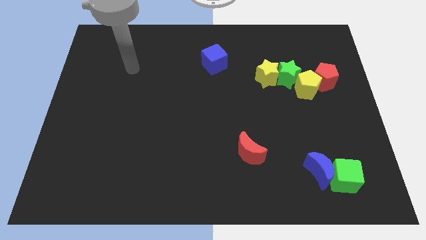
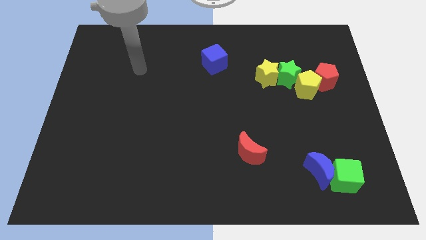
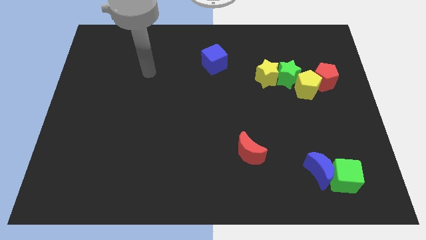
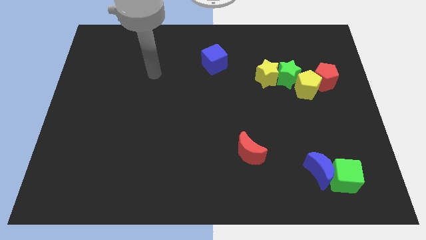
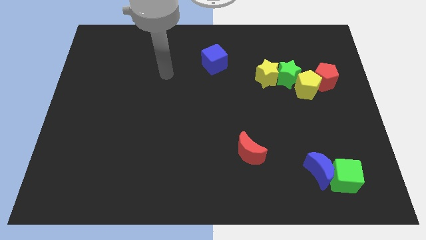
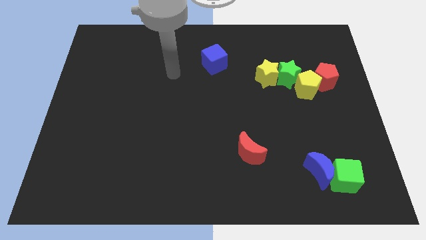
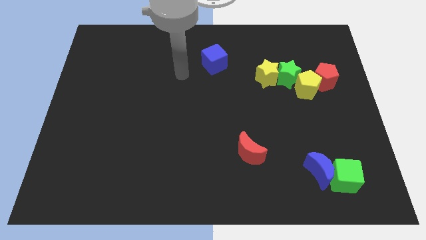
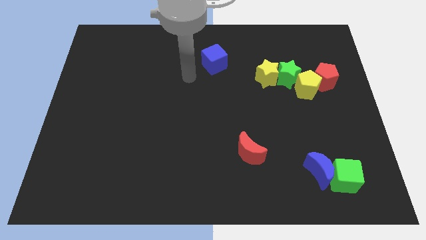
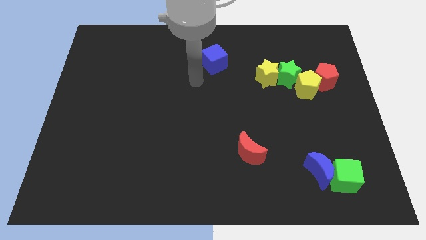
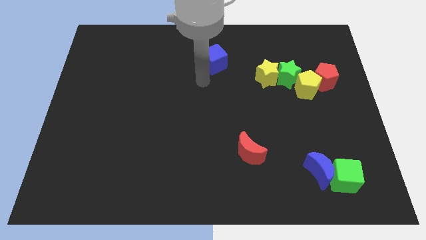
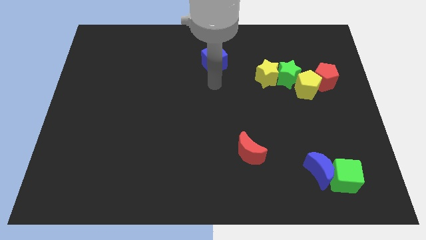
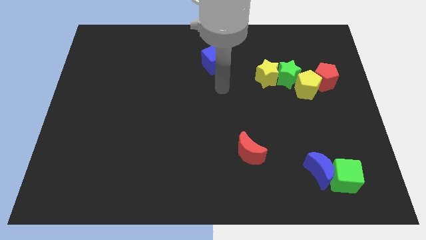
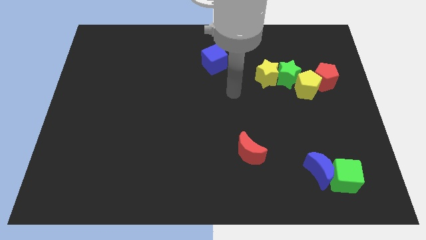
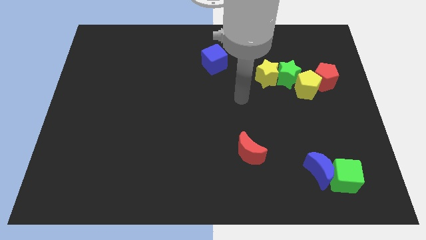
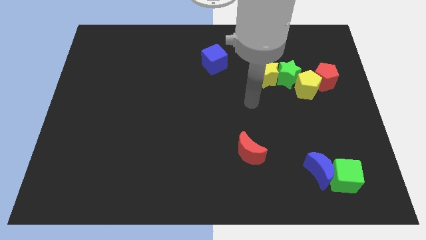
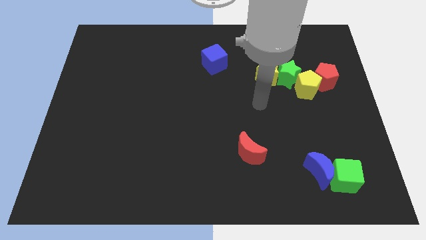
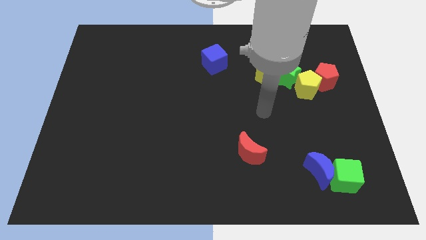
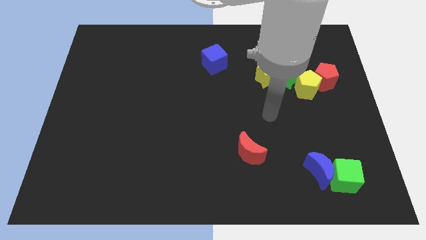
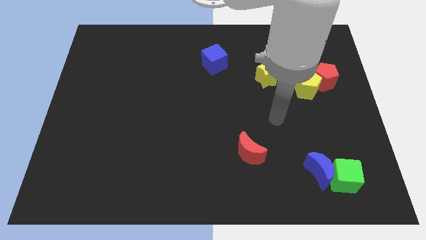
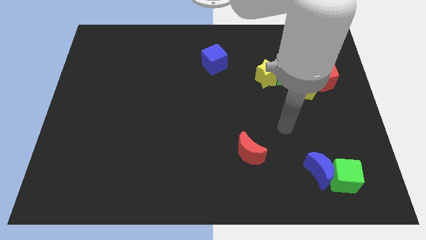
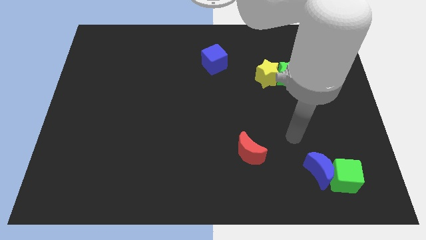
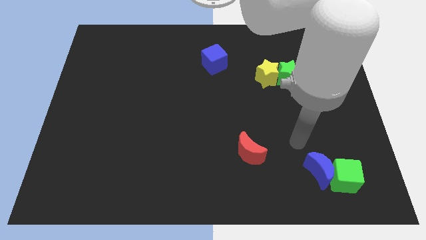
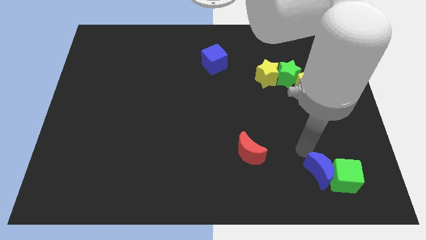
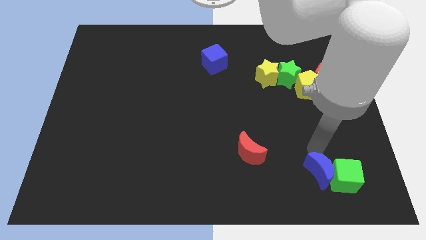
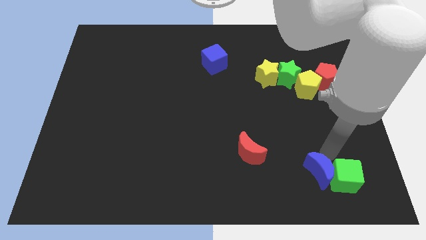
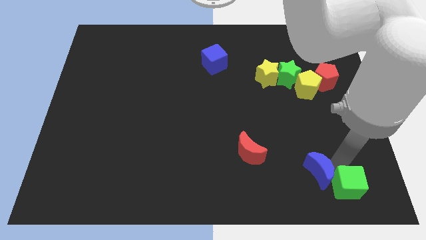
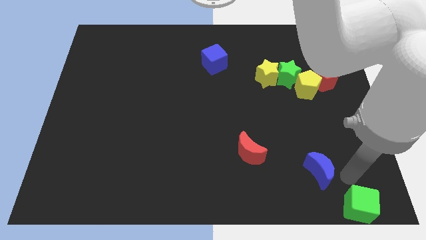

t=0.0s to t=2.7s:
move the blue moon away from the green cube

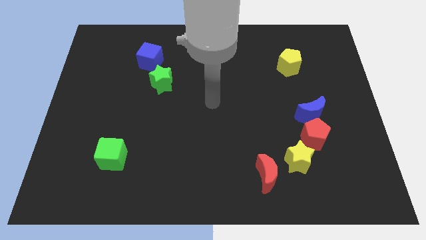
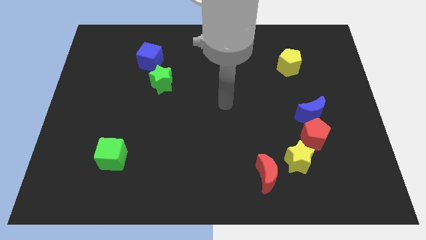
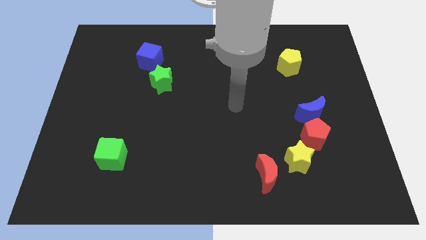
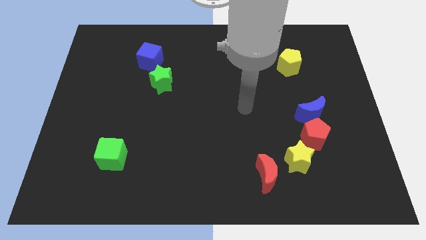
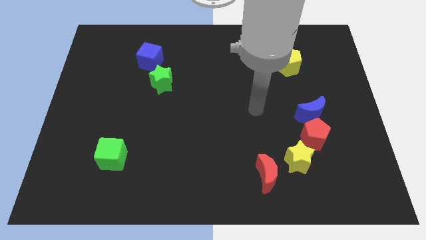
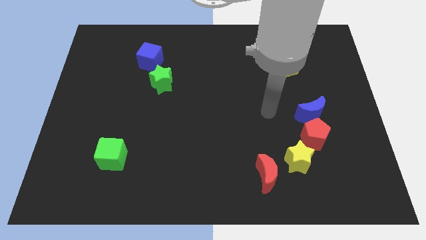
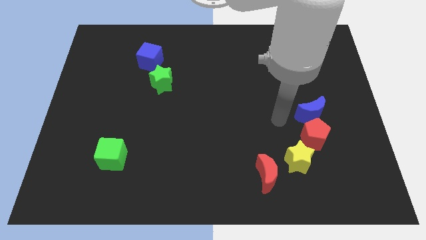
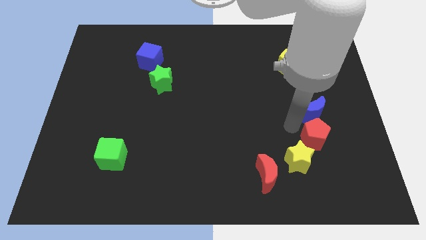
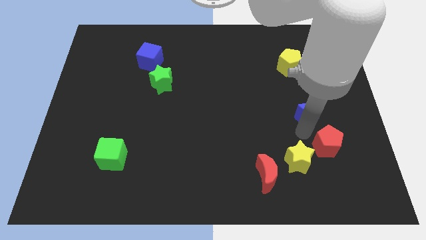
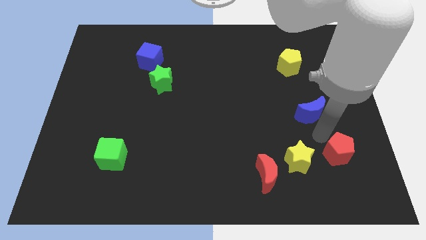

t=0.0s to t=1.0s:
move the blue moon away from the red pentagon

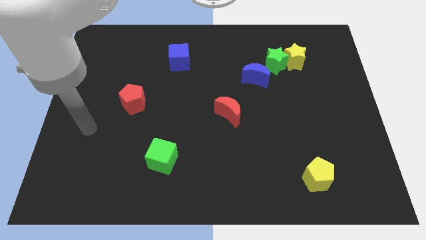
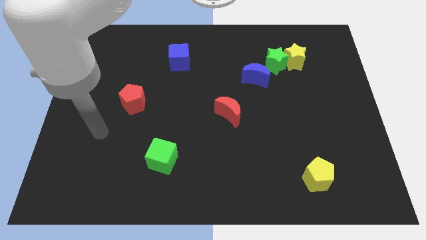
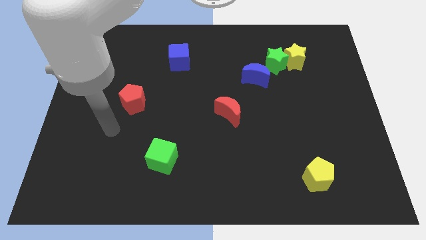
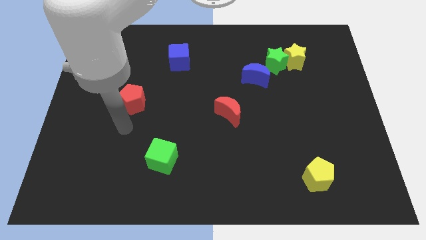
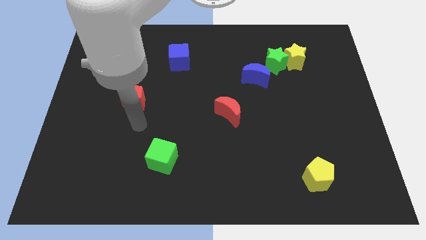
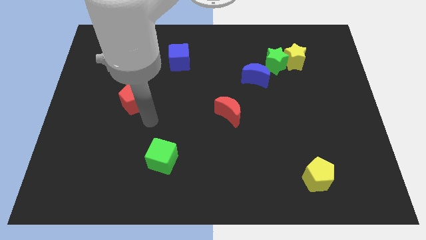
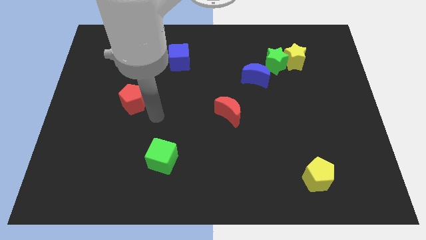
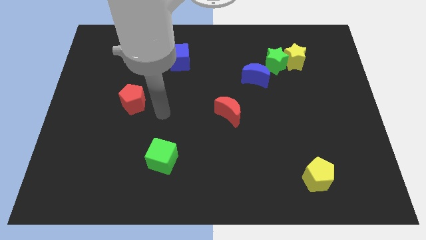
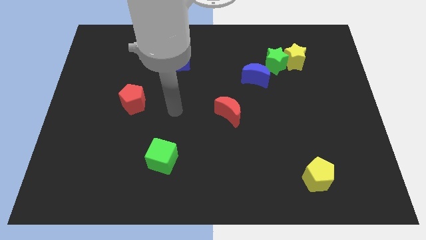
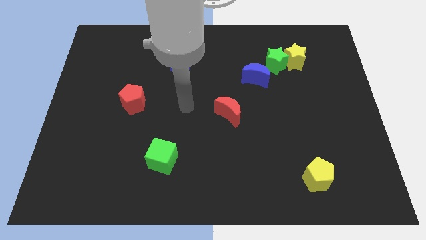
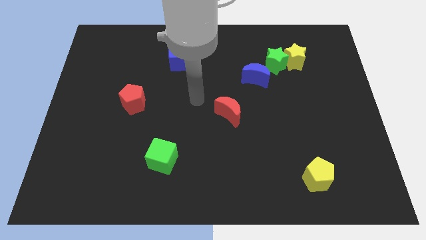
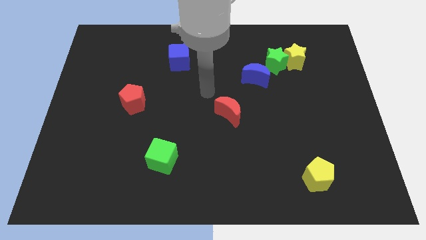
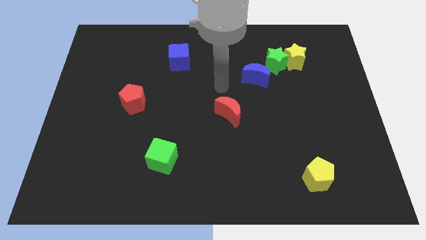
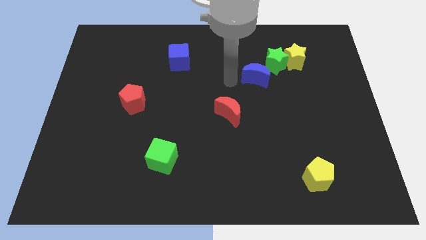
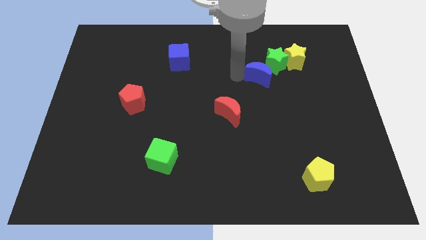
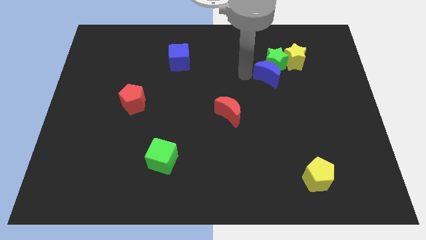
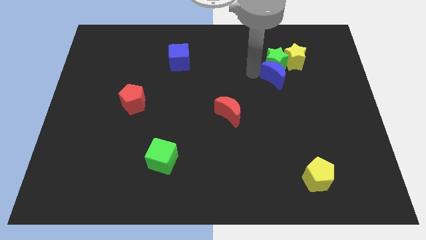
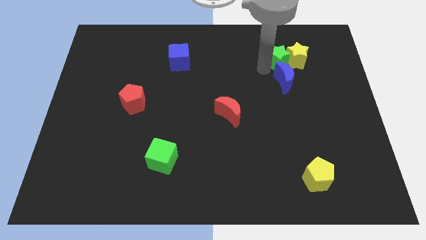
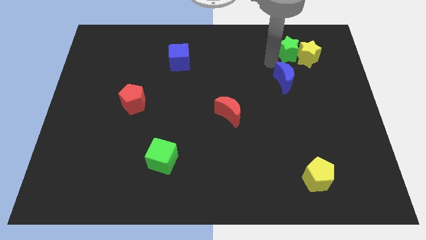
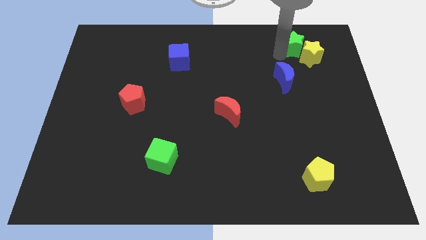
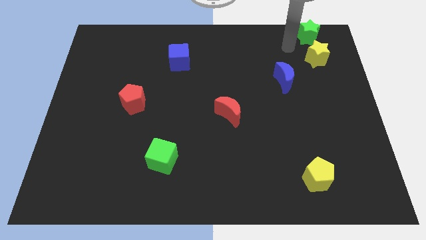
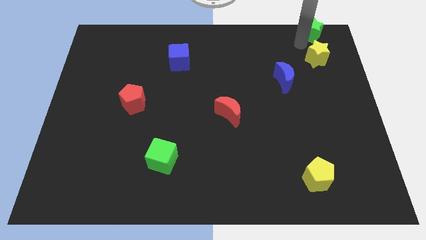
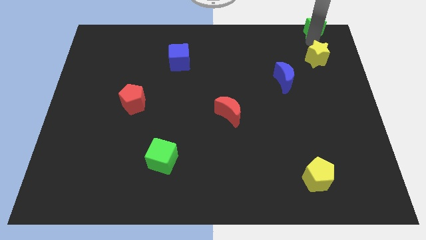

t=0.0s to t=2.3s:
separate the yellow star from the green star

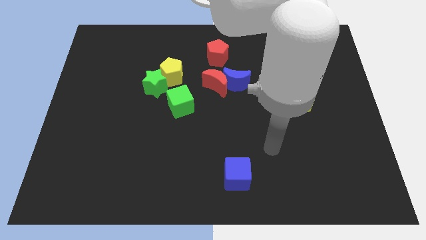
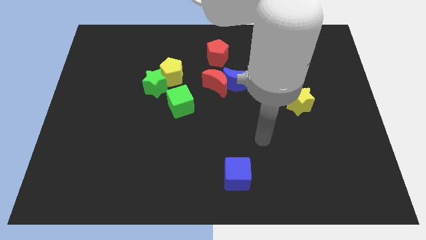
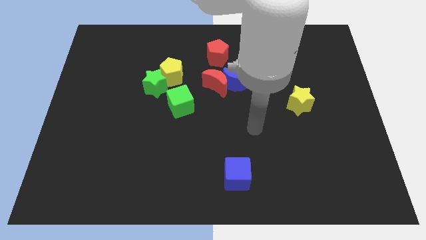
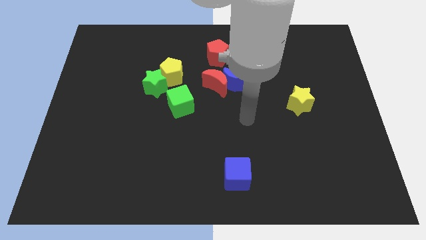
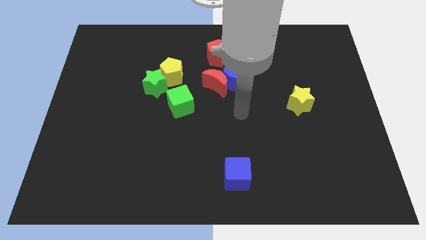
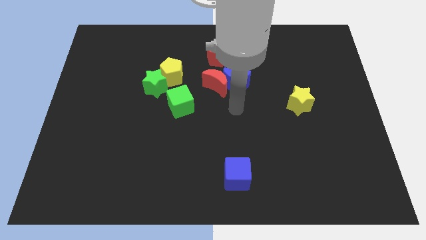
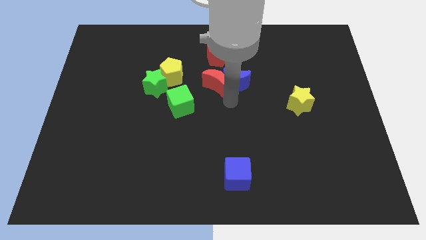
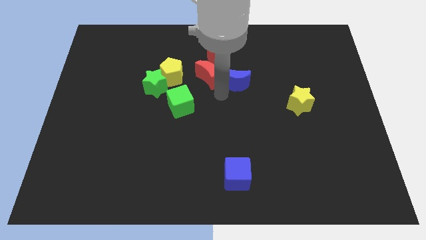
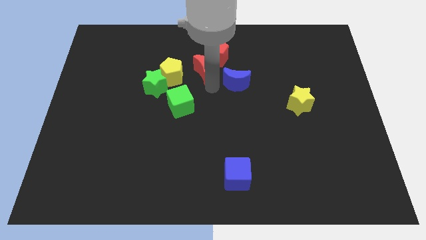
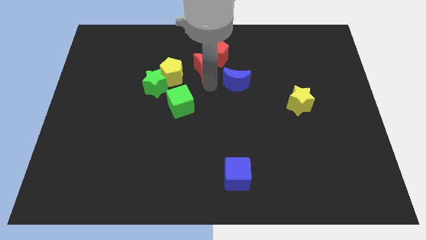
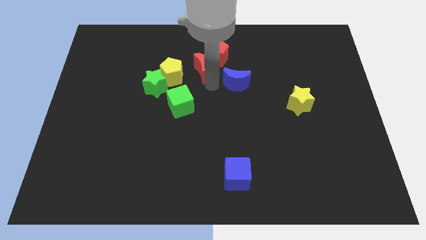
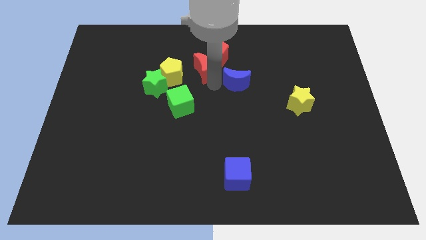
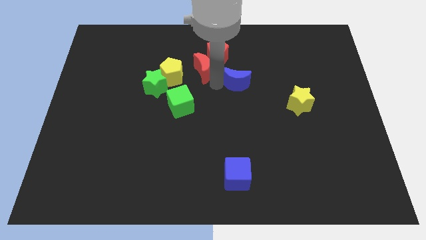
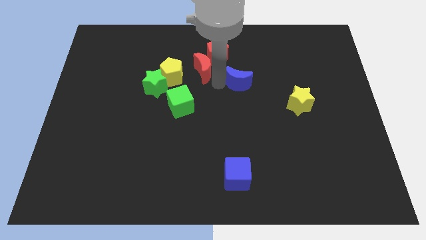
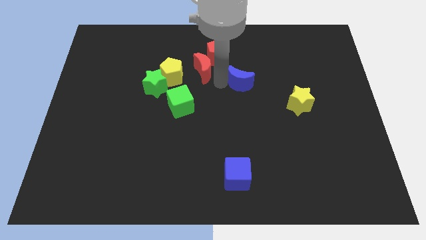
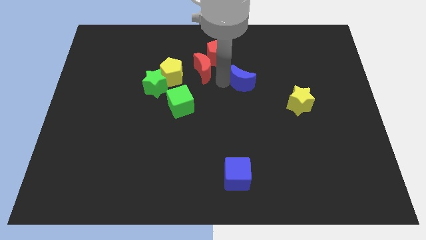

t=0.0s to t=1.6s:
separate the blue moon from the red moon

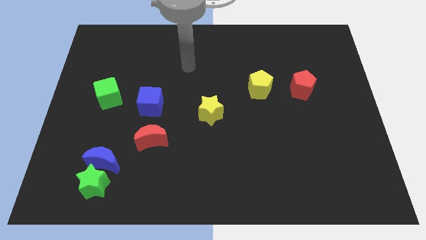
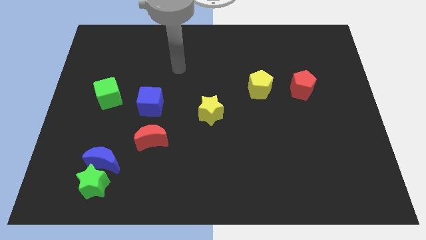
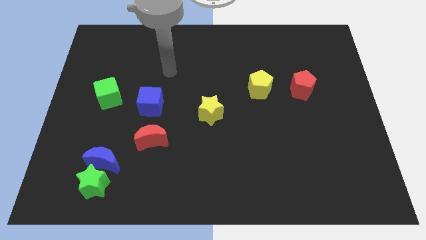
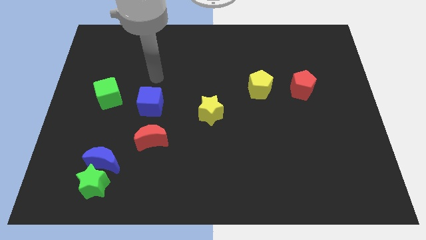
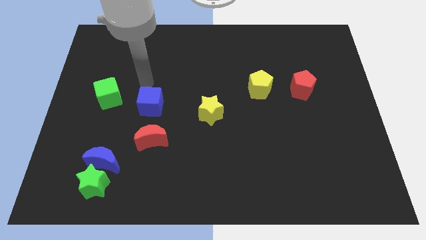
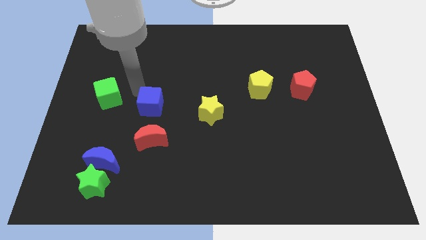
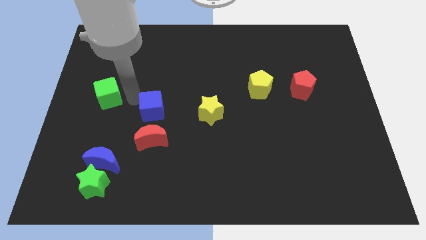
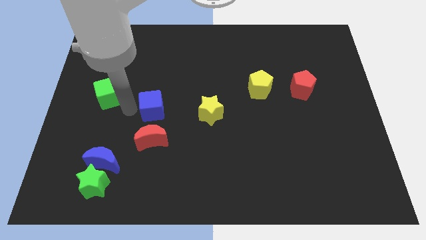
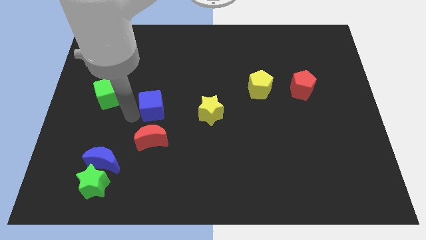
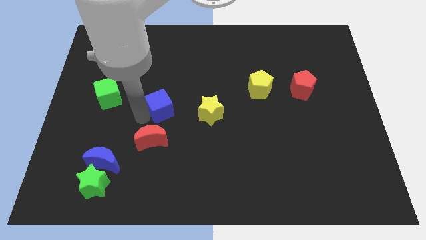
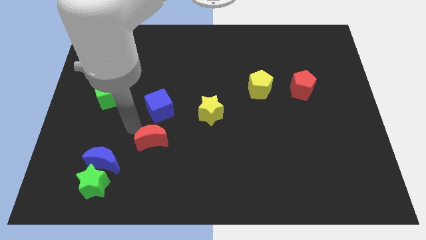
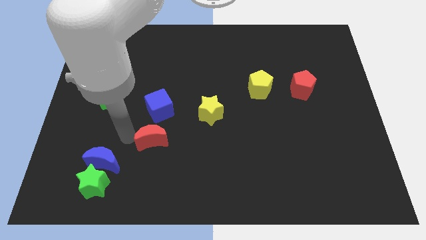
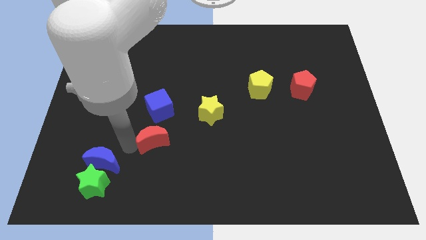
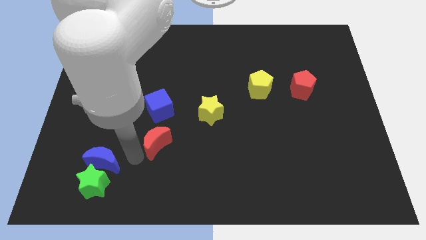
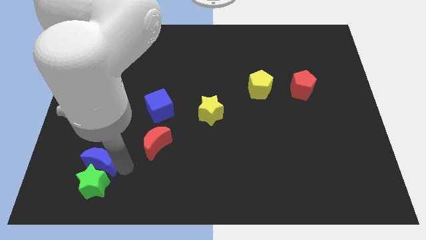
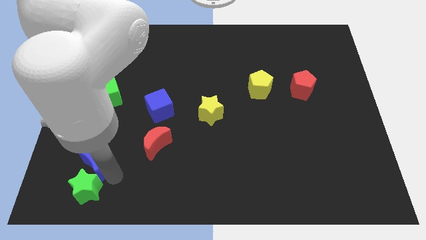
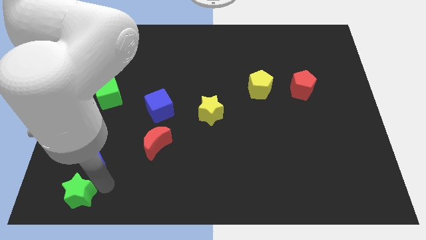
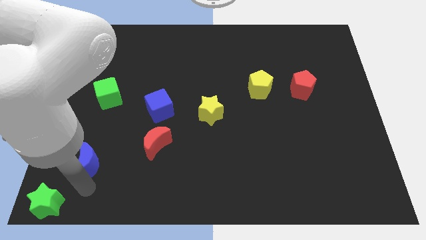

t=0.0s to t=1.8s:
move the blue moon away from the green star

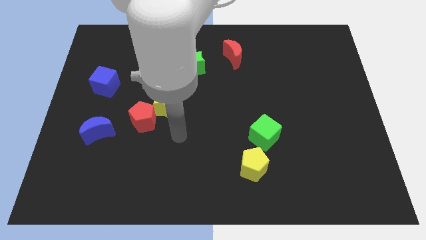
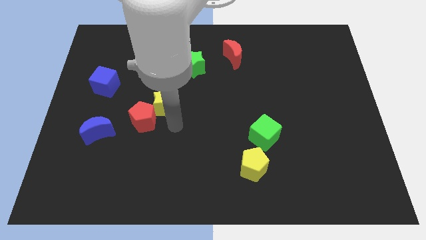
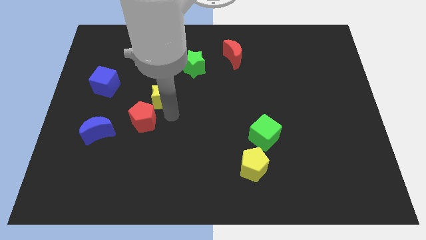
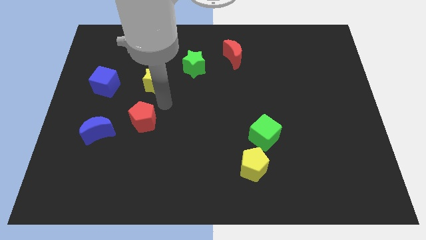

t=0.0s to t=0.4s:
separate the red pentagon from the yellow star
